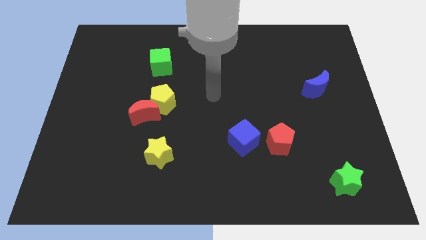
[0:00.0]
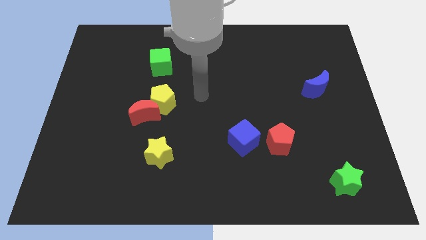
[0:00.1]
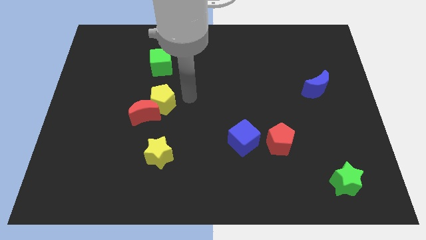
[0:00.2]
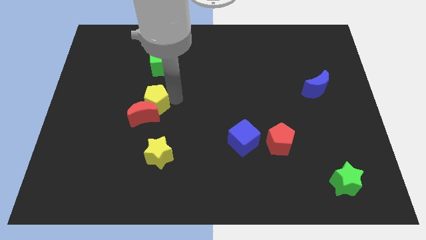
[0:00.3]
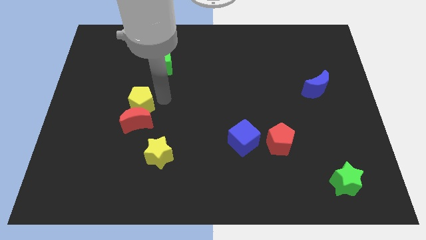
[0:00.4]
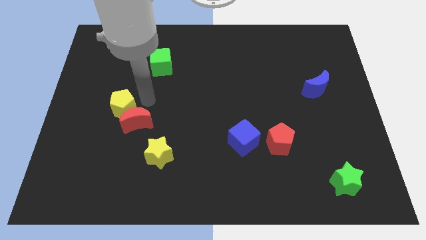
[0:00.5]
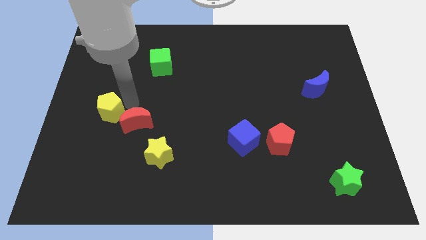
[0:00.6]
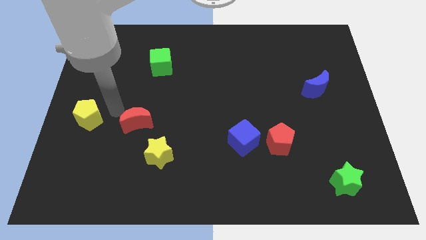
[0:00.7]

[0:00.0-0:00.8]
move the red moon away from the yellow pentagon

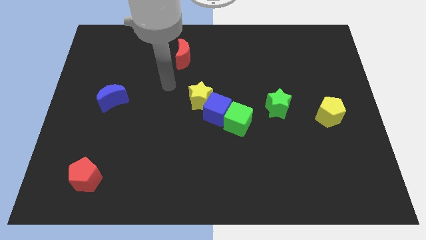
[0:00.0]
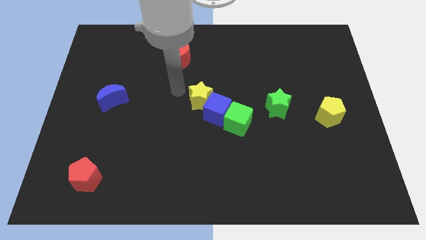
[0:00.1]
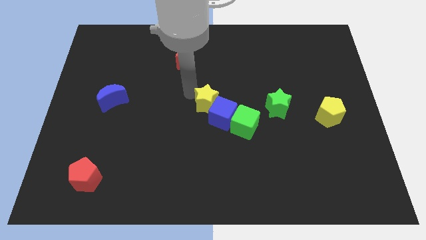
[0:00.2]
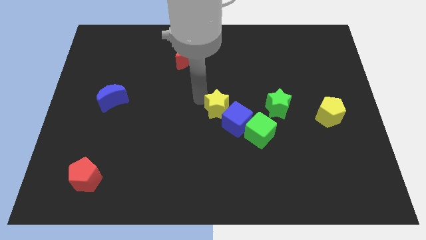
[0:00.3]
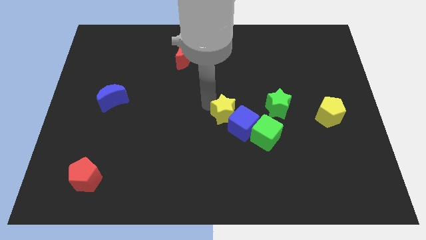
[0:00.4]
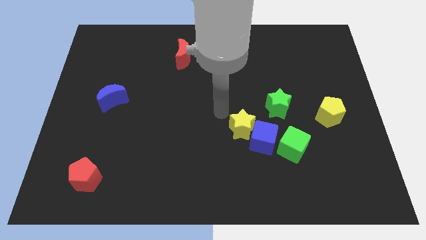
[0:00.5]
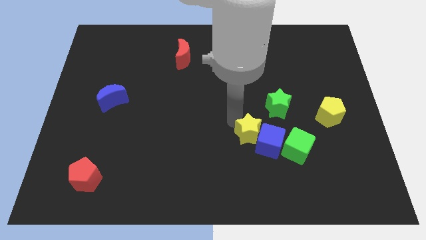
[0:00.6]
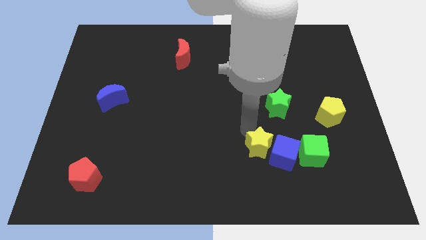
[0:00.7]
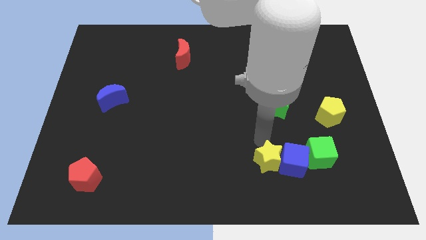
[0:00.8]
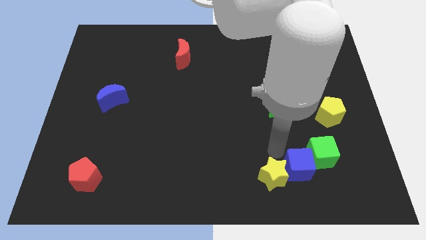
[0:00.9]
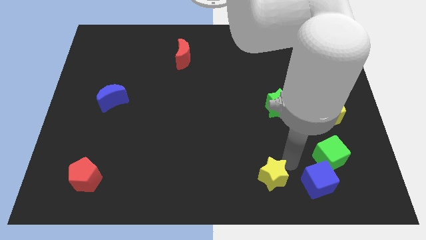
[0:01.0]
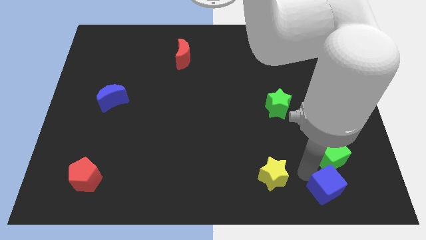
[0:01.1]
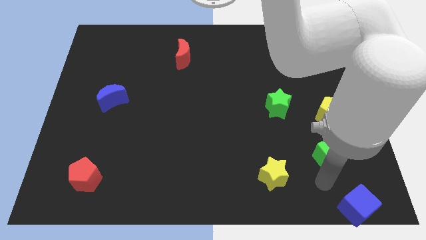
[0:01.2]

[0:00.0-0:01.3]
separate the green cube from the blue cube

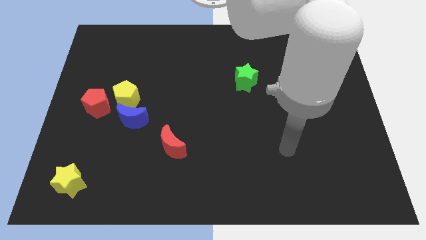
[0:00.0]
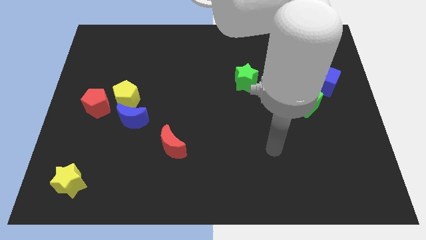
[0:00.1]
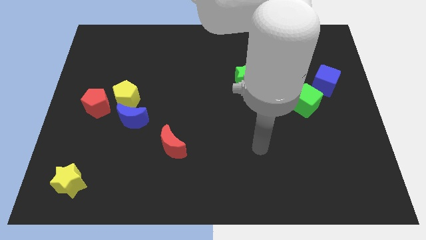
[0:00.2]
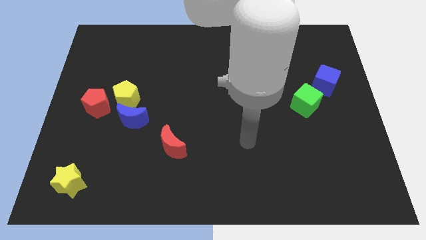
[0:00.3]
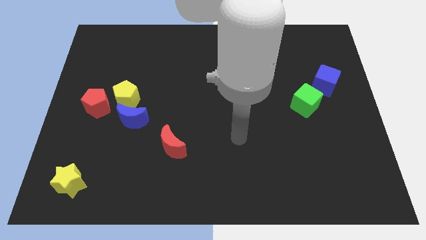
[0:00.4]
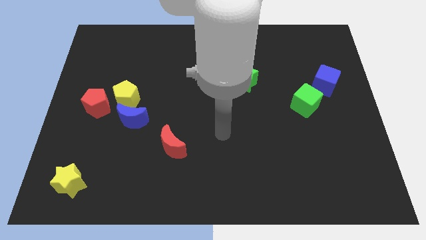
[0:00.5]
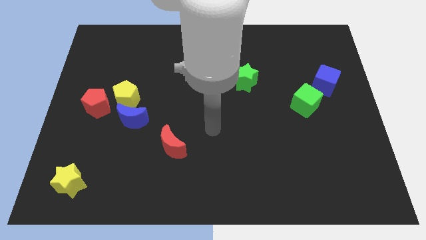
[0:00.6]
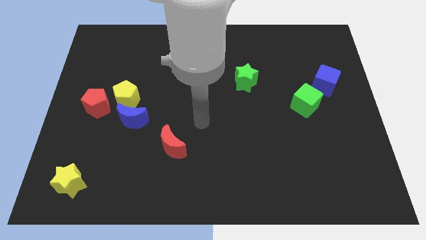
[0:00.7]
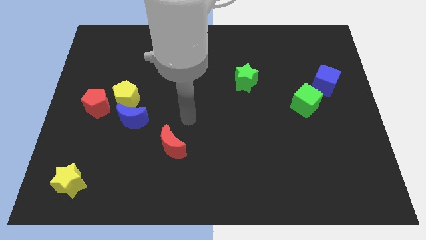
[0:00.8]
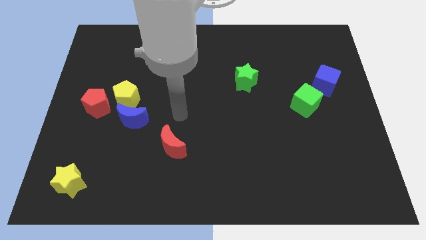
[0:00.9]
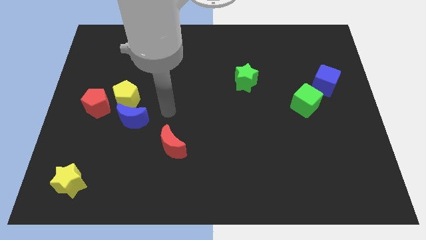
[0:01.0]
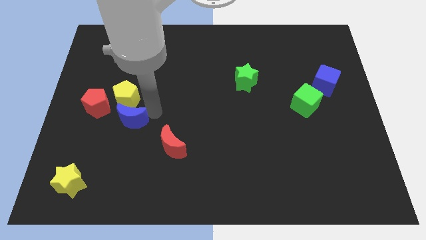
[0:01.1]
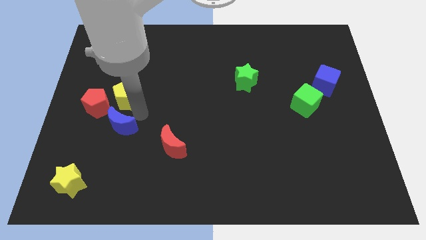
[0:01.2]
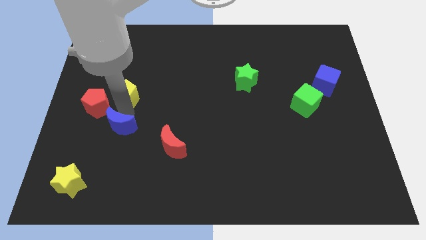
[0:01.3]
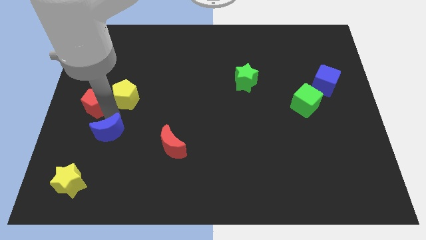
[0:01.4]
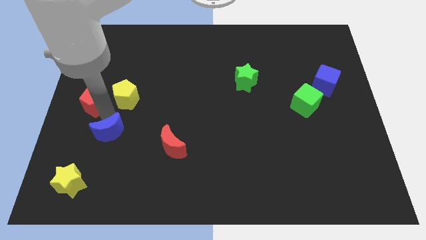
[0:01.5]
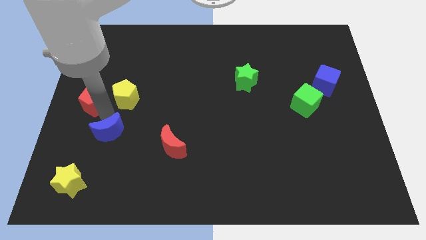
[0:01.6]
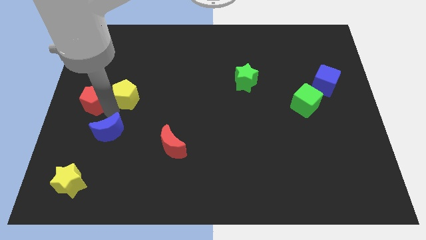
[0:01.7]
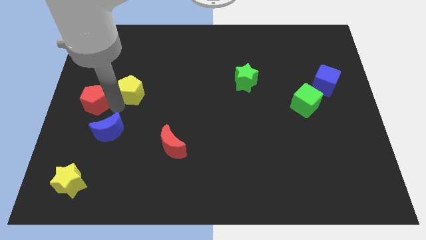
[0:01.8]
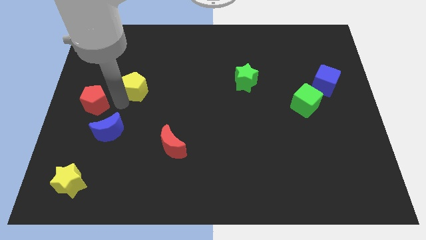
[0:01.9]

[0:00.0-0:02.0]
pull the yellow pentagon apart from the blue moon and red pentagon

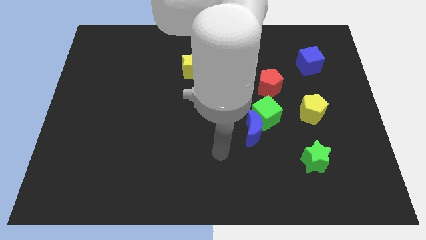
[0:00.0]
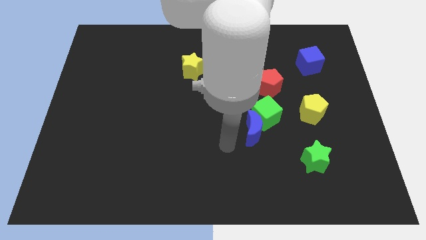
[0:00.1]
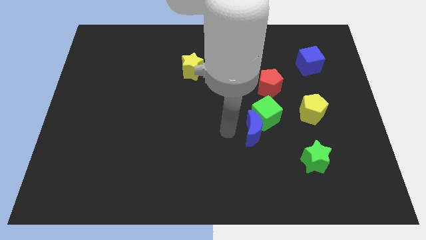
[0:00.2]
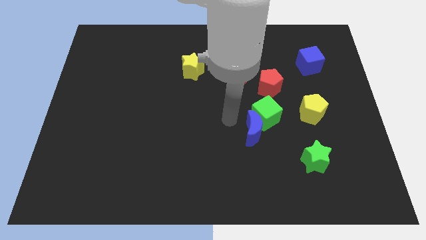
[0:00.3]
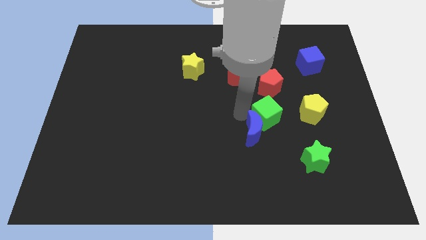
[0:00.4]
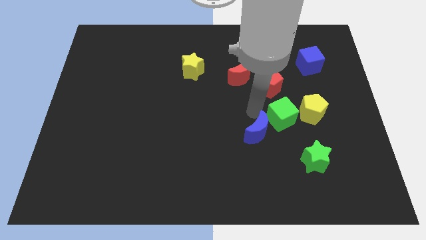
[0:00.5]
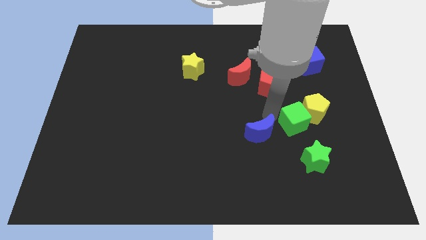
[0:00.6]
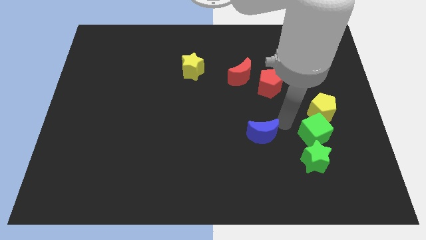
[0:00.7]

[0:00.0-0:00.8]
move the blue moon away from the green cube

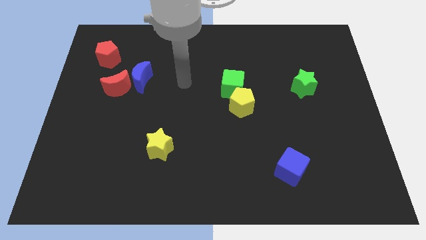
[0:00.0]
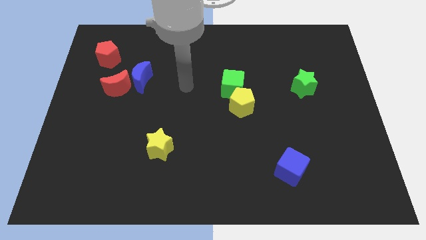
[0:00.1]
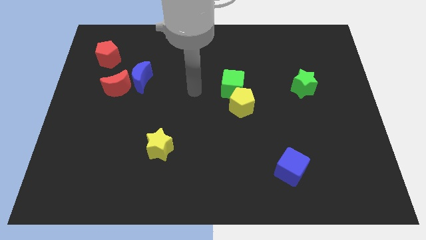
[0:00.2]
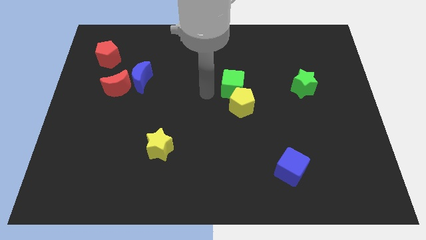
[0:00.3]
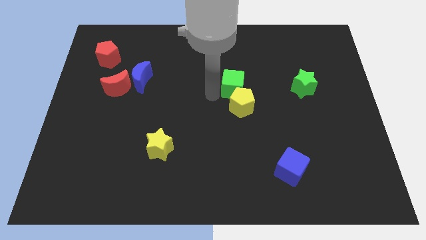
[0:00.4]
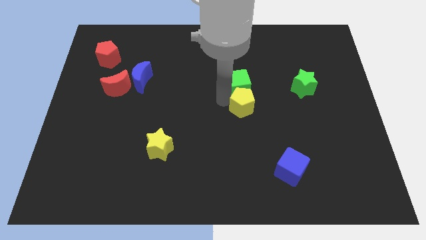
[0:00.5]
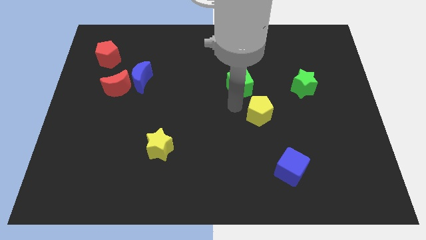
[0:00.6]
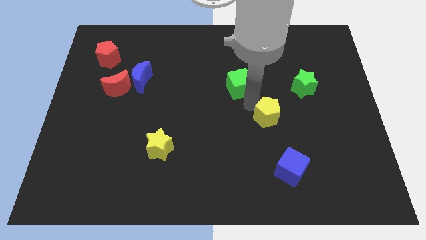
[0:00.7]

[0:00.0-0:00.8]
pull the green cube apart from the yellow pentagon

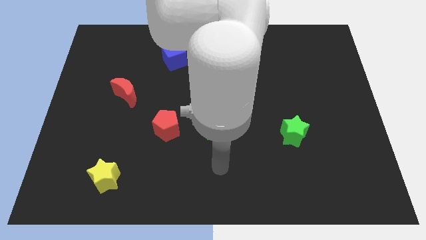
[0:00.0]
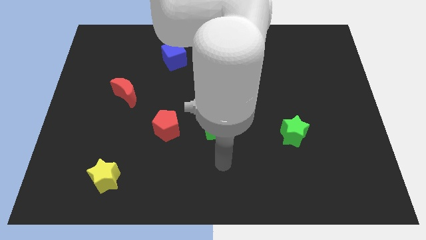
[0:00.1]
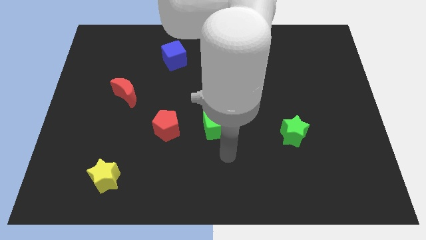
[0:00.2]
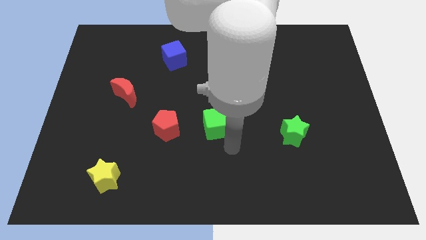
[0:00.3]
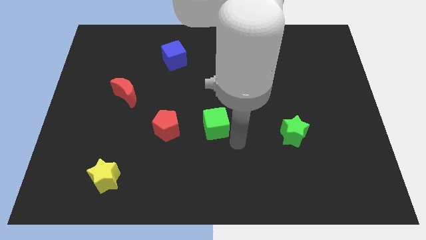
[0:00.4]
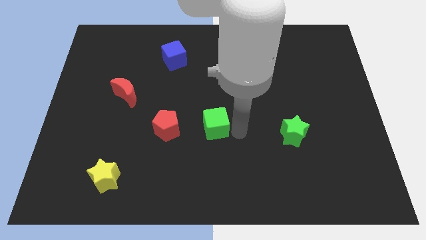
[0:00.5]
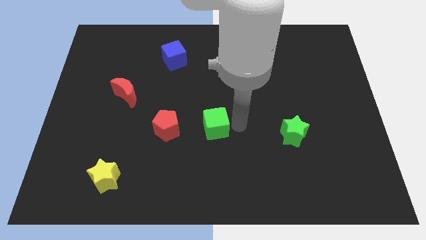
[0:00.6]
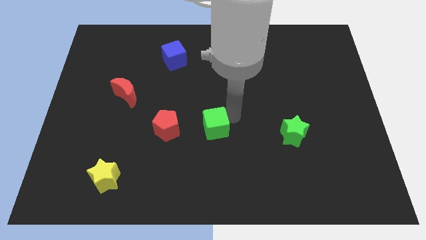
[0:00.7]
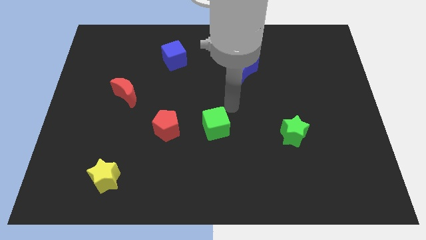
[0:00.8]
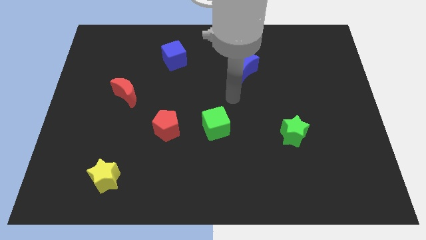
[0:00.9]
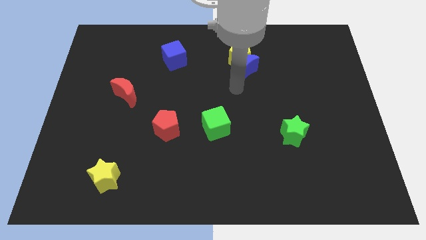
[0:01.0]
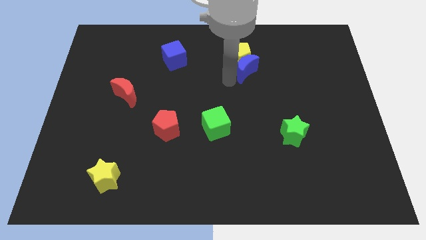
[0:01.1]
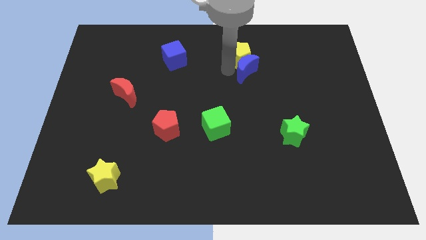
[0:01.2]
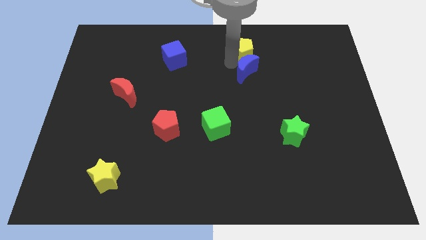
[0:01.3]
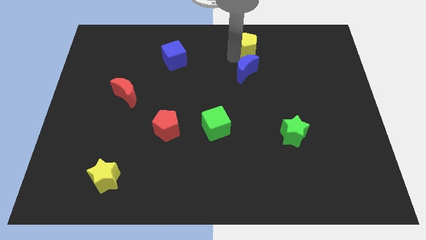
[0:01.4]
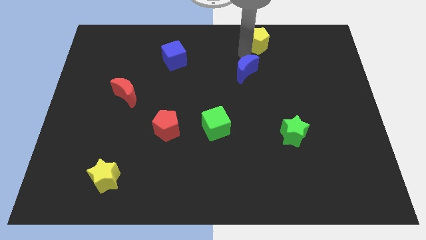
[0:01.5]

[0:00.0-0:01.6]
move the blue moon away from the yellow pentagon

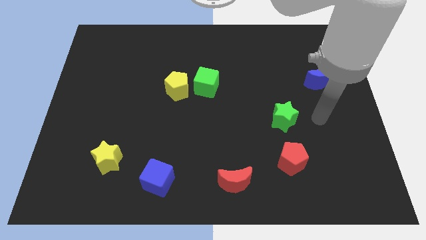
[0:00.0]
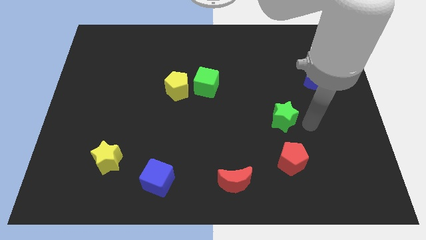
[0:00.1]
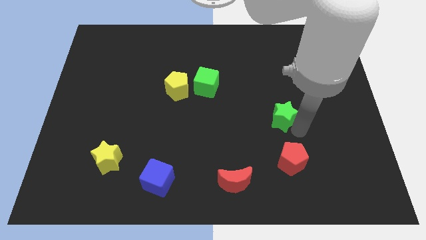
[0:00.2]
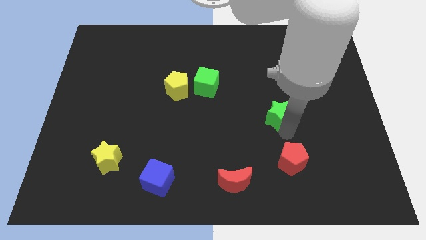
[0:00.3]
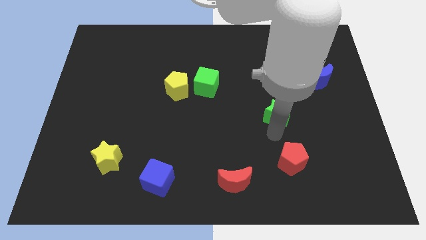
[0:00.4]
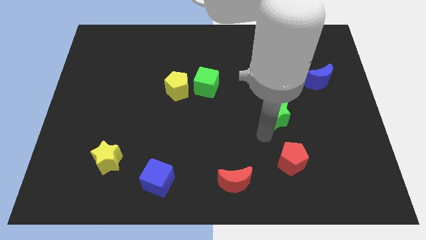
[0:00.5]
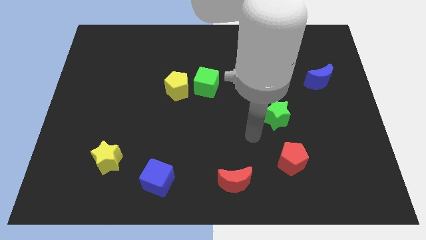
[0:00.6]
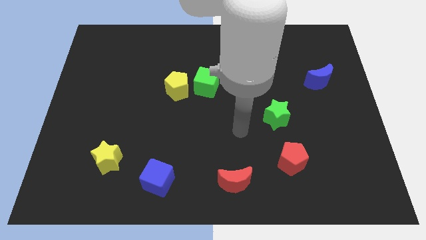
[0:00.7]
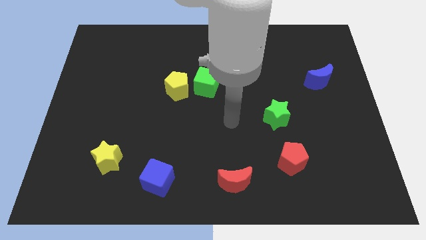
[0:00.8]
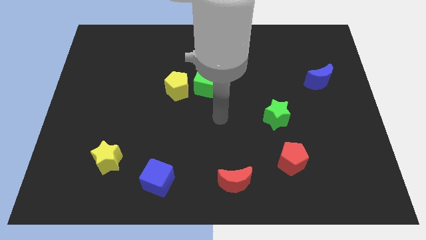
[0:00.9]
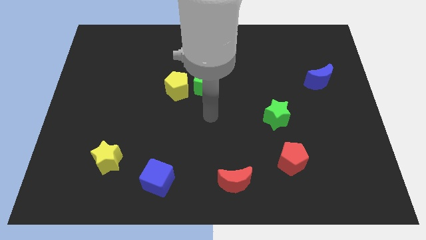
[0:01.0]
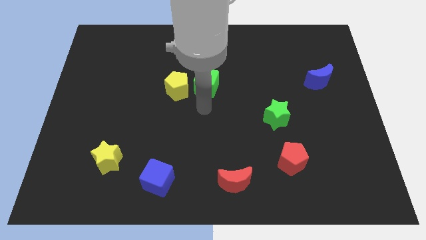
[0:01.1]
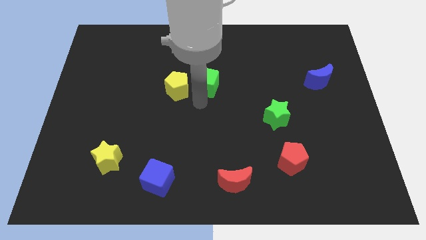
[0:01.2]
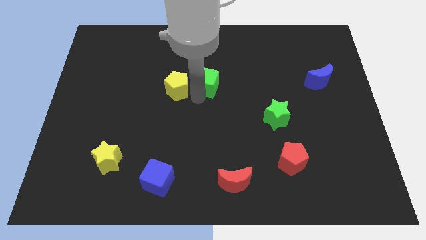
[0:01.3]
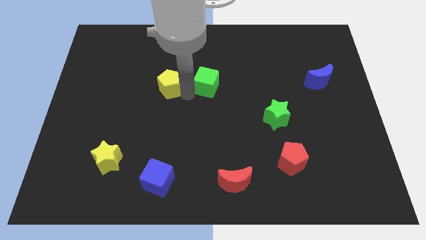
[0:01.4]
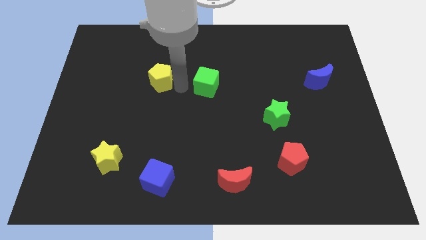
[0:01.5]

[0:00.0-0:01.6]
separate the green cube from the yellow pentagon

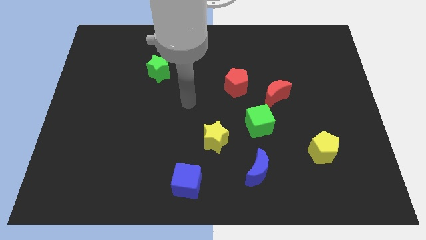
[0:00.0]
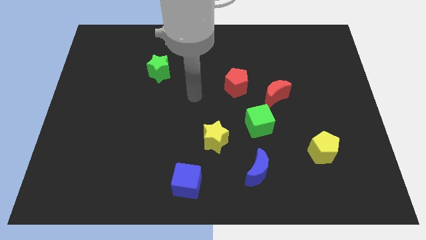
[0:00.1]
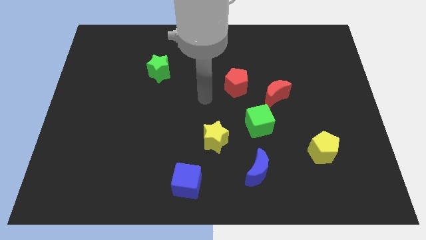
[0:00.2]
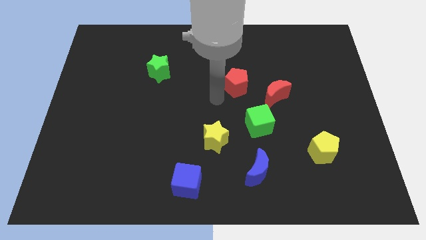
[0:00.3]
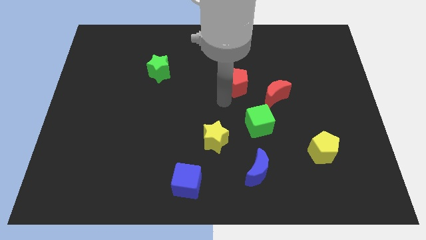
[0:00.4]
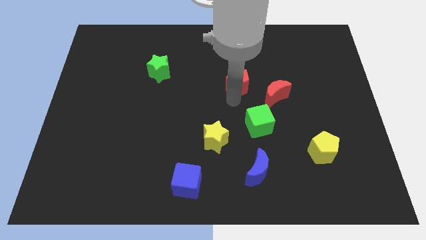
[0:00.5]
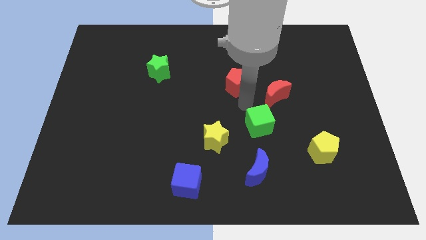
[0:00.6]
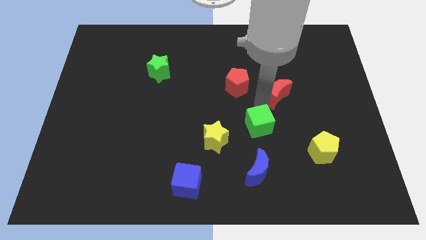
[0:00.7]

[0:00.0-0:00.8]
separate the green cube from the red moon
